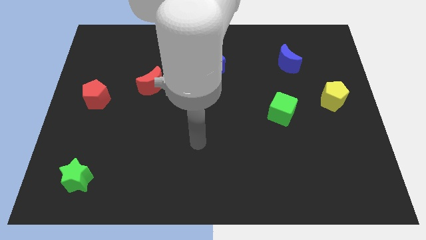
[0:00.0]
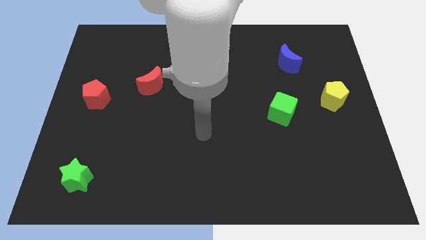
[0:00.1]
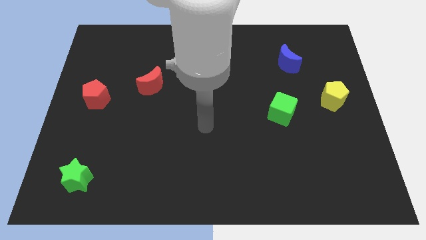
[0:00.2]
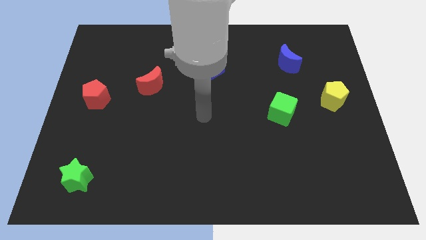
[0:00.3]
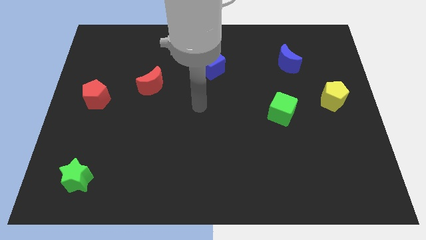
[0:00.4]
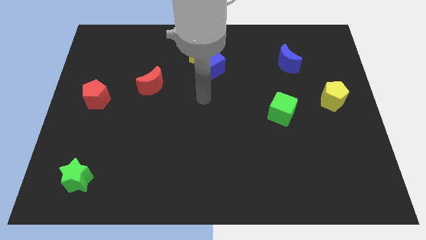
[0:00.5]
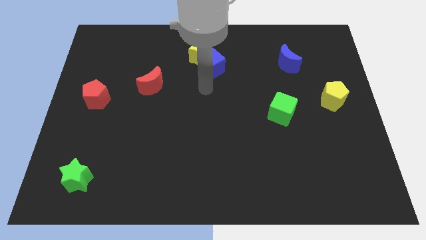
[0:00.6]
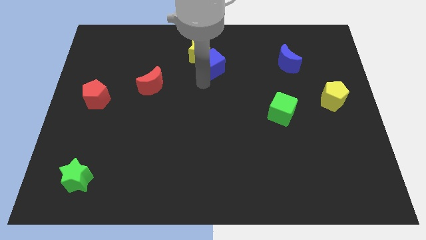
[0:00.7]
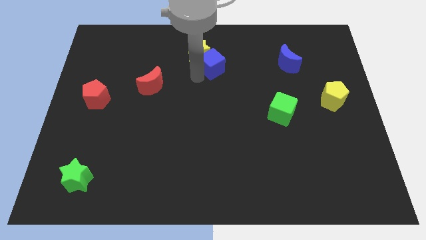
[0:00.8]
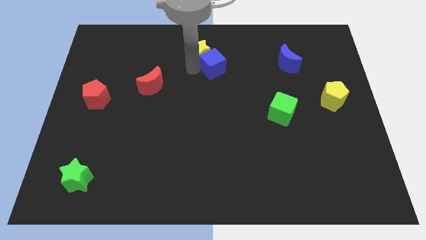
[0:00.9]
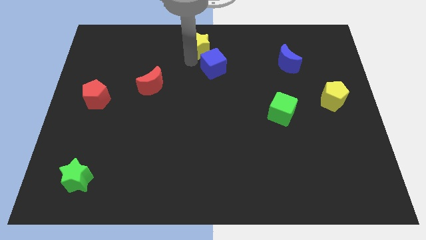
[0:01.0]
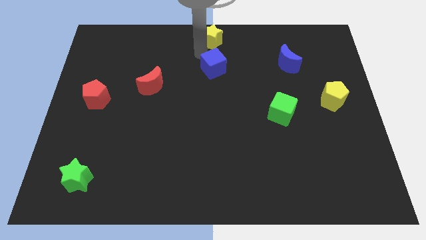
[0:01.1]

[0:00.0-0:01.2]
separate the blue cube from the yellow star

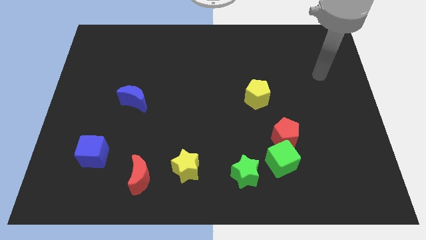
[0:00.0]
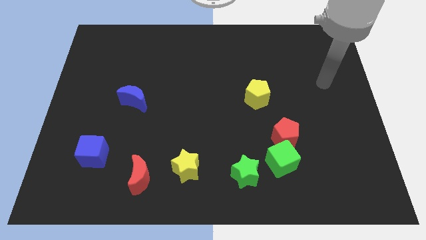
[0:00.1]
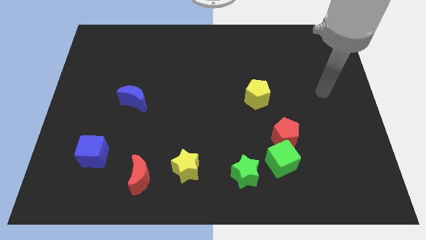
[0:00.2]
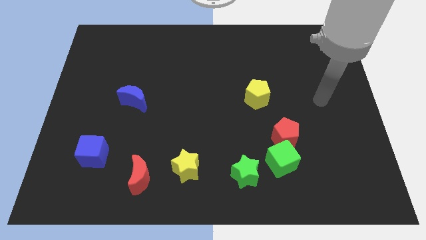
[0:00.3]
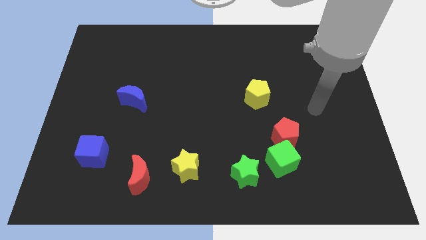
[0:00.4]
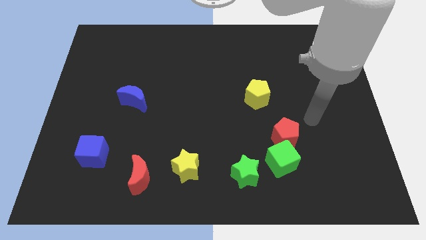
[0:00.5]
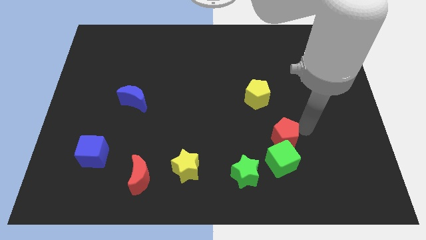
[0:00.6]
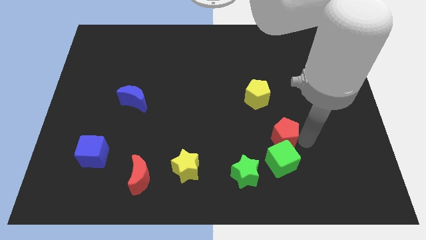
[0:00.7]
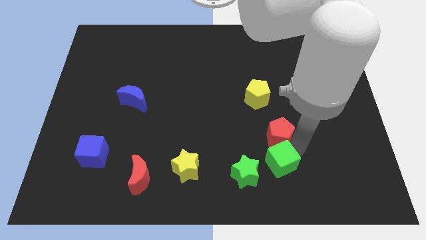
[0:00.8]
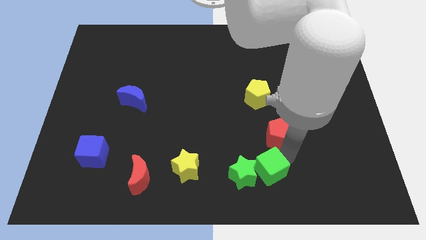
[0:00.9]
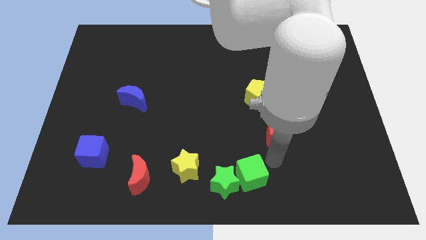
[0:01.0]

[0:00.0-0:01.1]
move the red pentagon away from the green cube

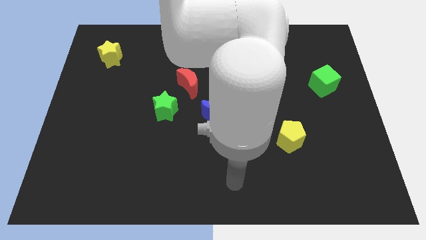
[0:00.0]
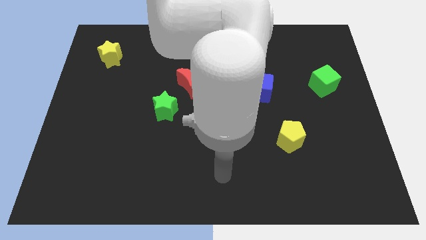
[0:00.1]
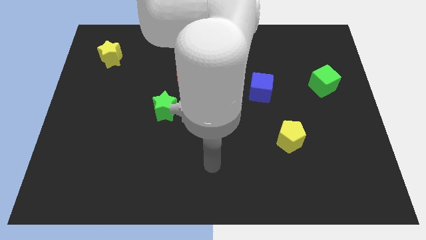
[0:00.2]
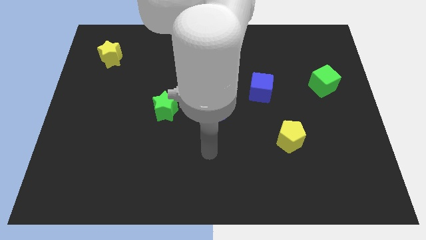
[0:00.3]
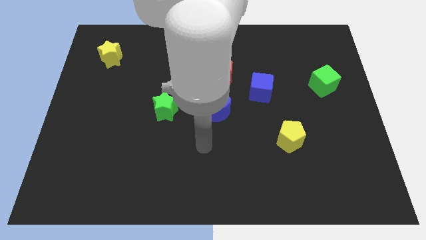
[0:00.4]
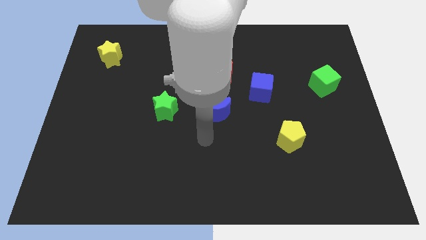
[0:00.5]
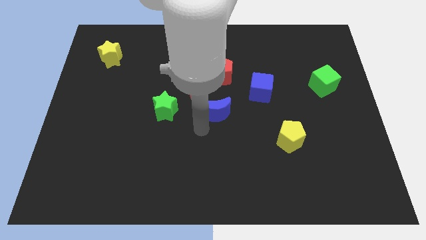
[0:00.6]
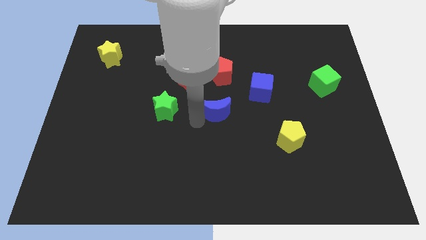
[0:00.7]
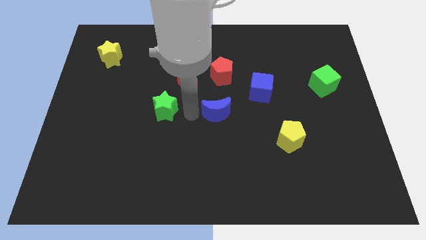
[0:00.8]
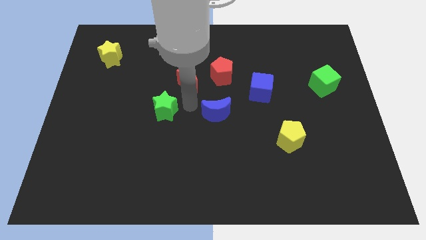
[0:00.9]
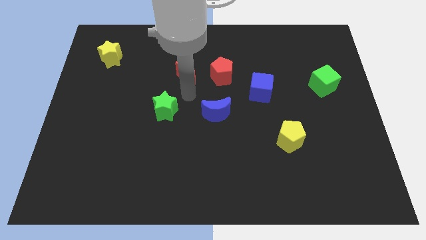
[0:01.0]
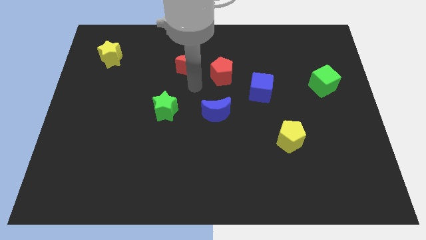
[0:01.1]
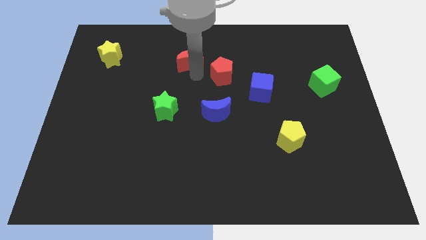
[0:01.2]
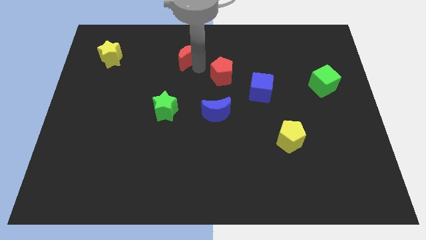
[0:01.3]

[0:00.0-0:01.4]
move the red pentagon away from the red moon

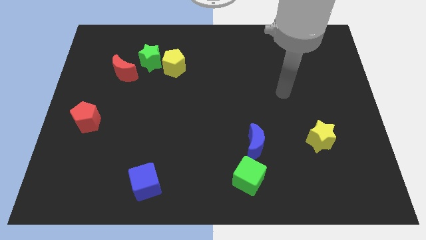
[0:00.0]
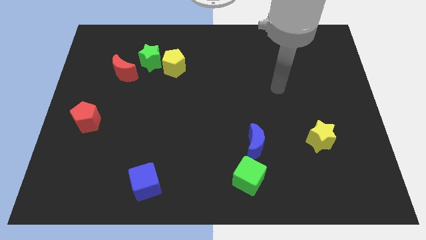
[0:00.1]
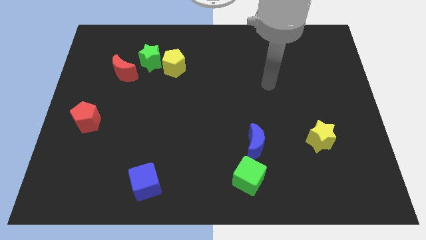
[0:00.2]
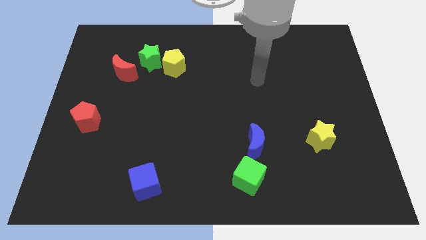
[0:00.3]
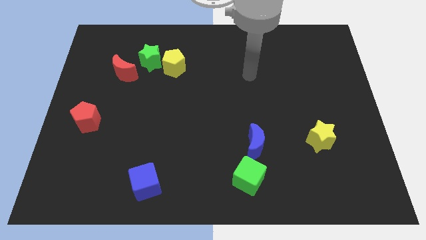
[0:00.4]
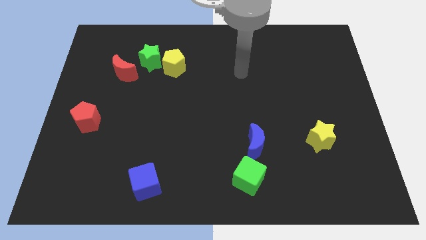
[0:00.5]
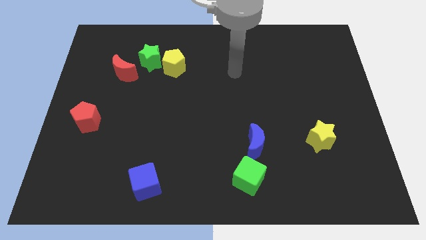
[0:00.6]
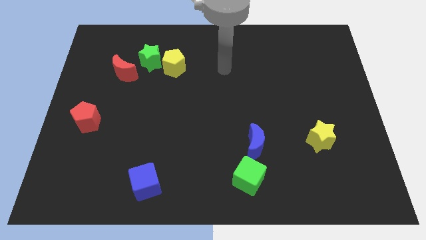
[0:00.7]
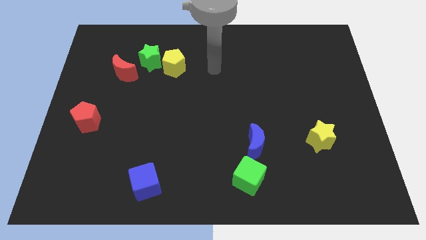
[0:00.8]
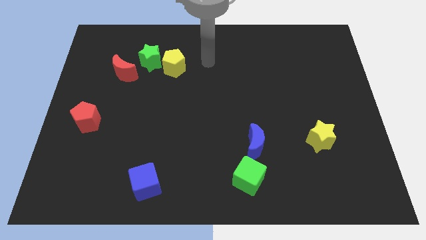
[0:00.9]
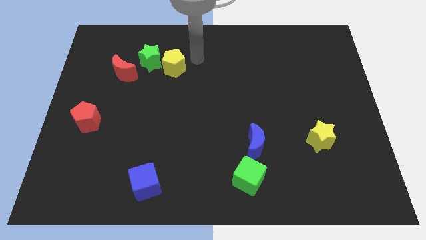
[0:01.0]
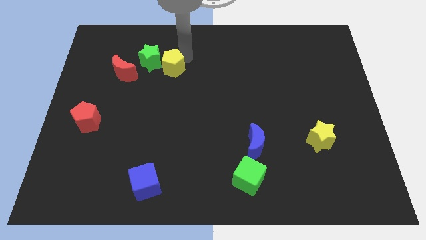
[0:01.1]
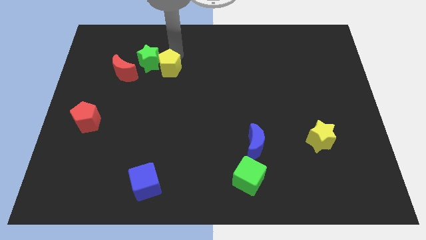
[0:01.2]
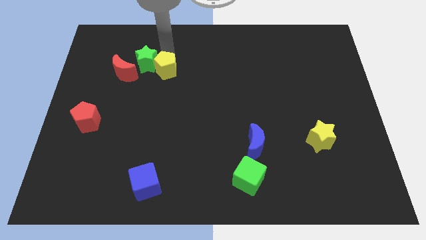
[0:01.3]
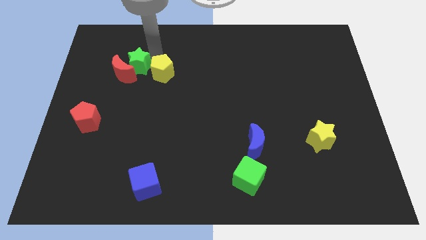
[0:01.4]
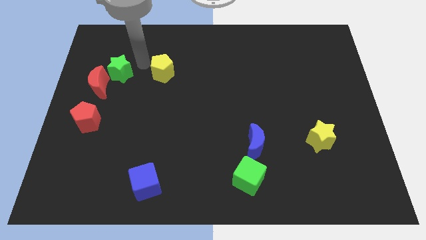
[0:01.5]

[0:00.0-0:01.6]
move the yellow pentagon away from the green star

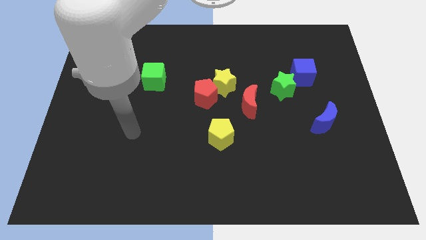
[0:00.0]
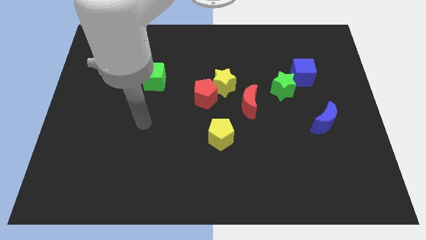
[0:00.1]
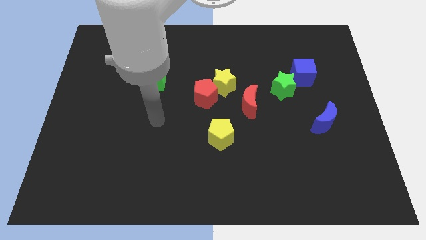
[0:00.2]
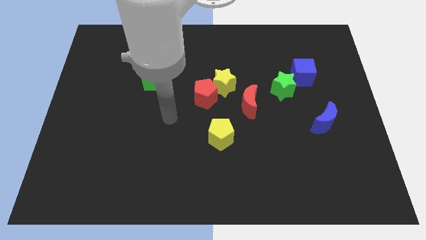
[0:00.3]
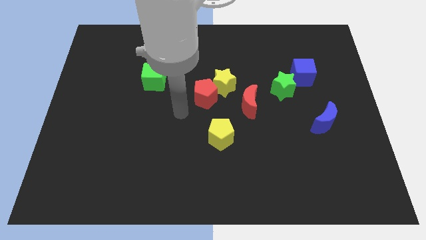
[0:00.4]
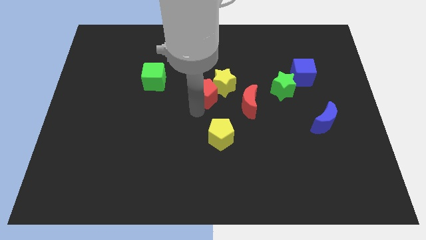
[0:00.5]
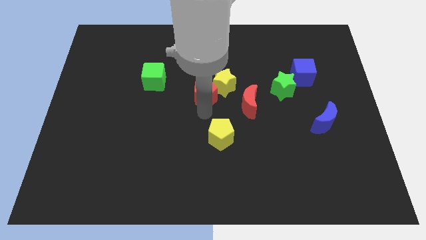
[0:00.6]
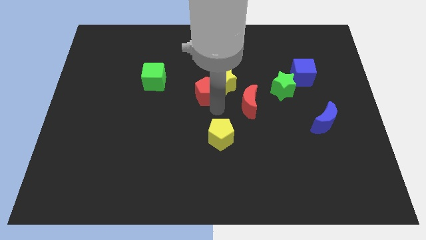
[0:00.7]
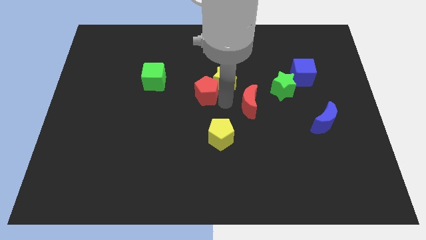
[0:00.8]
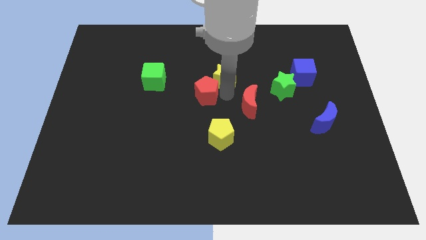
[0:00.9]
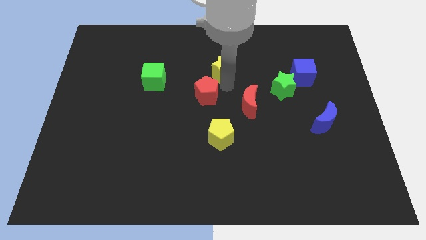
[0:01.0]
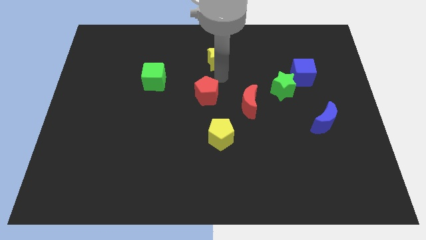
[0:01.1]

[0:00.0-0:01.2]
move the red pentagon away from the yellow star

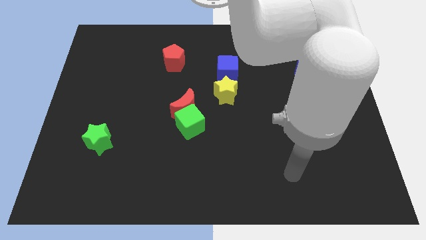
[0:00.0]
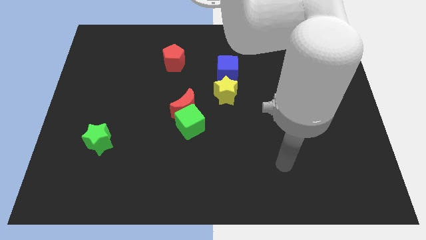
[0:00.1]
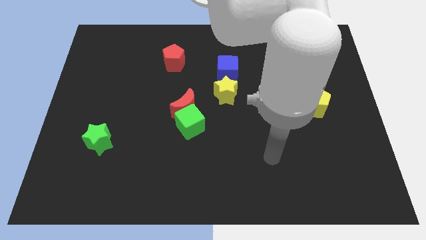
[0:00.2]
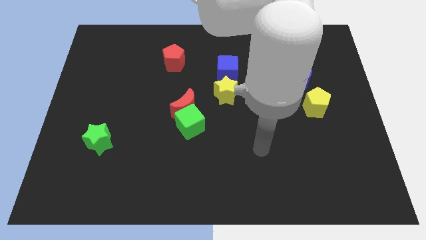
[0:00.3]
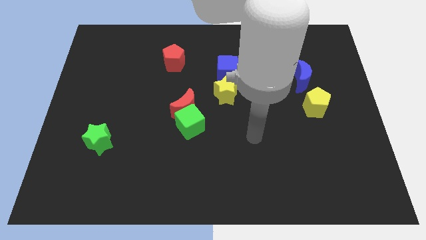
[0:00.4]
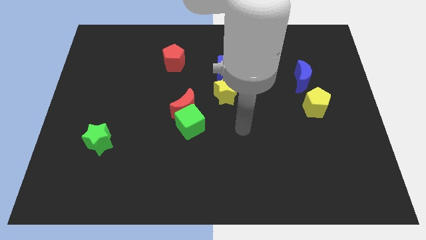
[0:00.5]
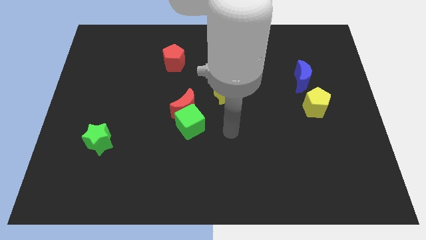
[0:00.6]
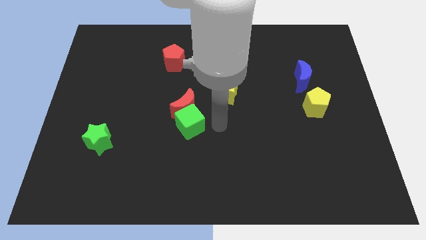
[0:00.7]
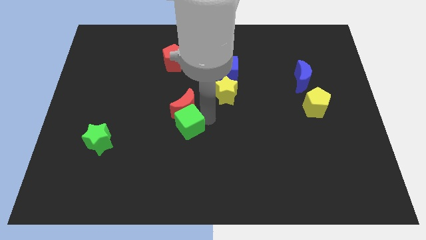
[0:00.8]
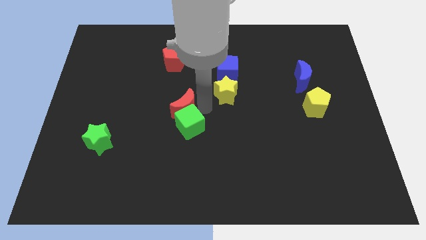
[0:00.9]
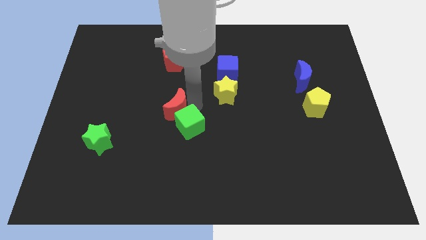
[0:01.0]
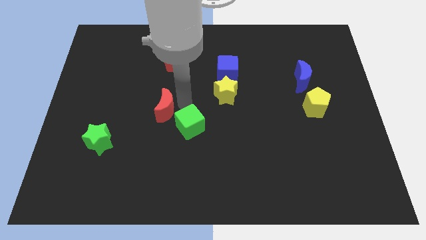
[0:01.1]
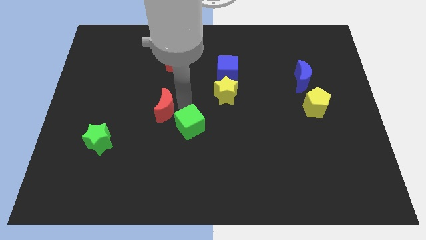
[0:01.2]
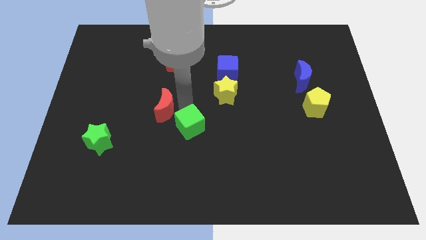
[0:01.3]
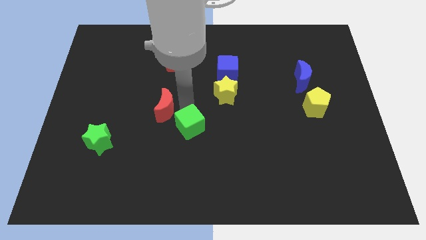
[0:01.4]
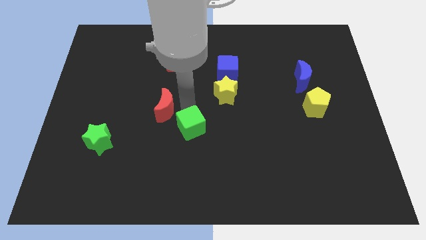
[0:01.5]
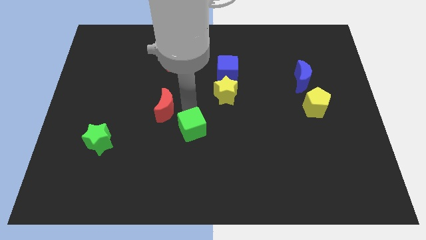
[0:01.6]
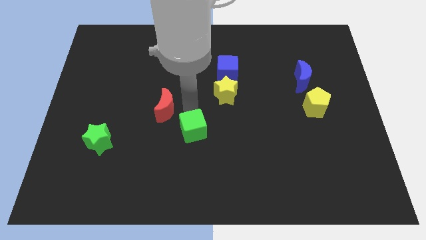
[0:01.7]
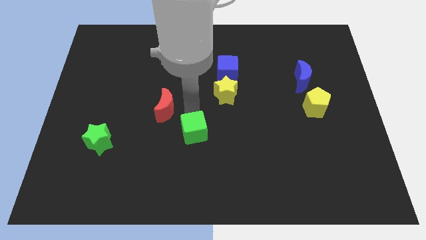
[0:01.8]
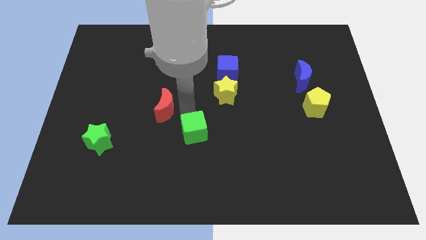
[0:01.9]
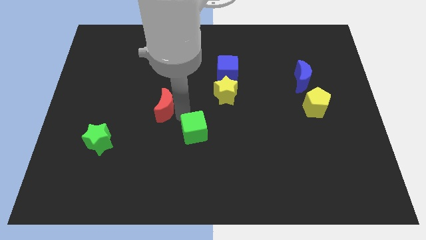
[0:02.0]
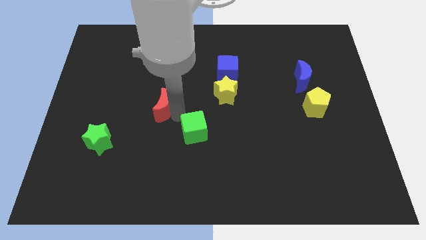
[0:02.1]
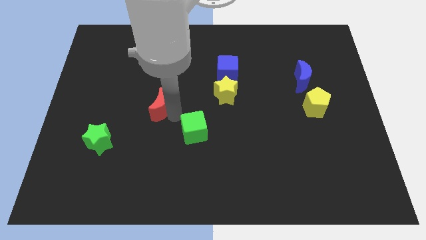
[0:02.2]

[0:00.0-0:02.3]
separate the green cube from the red moon

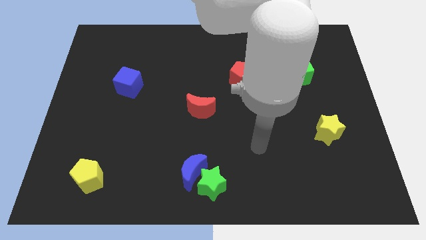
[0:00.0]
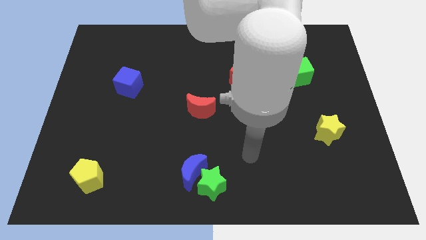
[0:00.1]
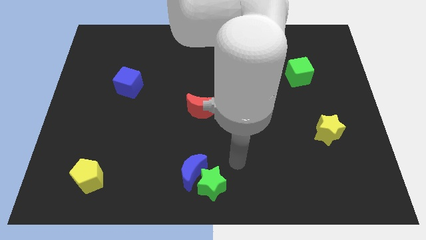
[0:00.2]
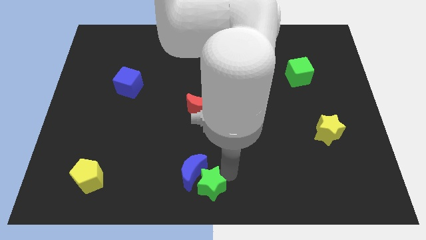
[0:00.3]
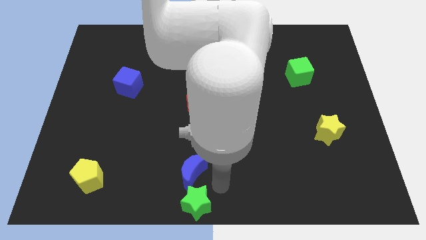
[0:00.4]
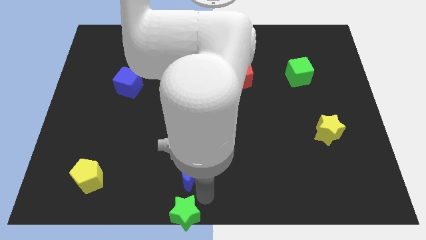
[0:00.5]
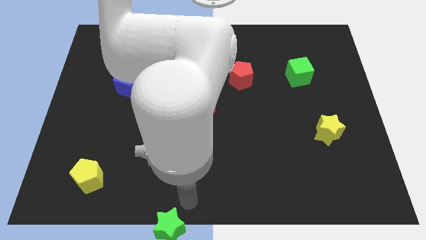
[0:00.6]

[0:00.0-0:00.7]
pull the blue moon apart from the green star
